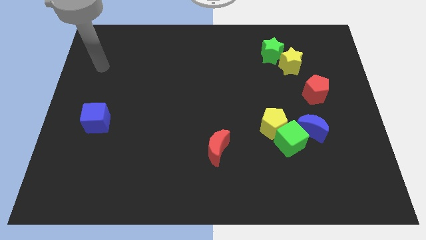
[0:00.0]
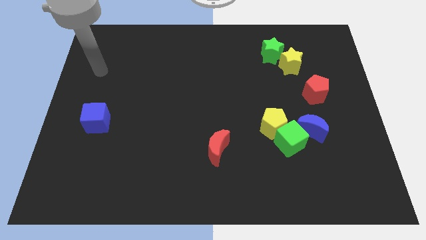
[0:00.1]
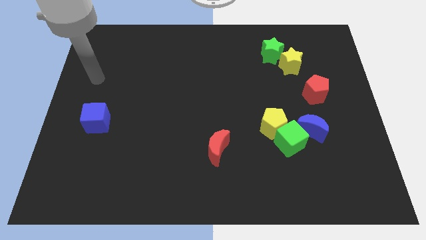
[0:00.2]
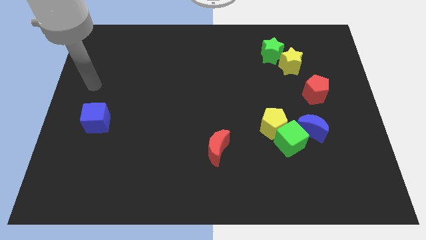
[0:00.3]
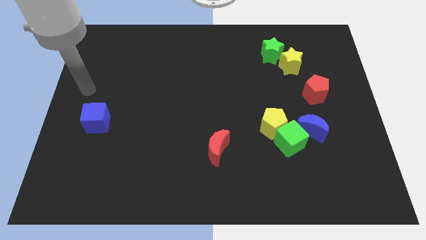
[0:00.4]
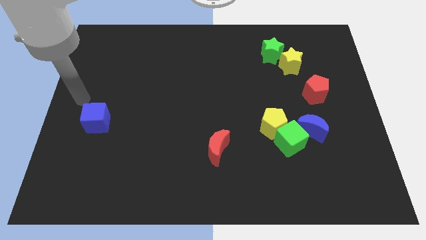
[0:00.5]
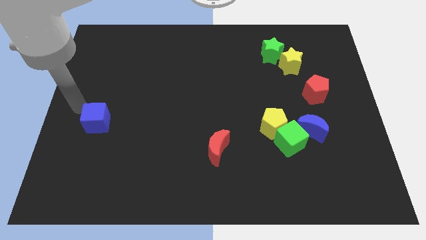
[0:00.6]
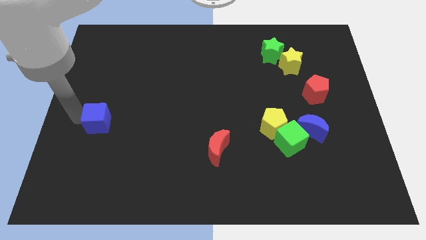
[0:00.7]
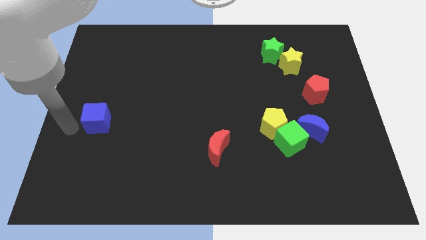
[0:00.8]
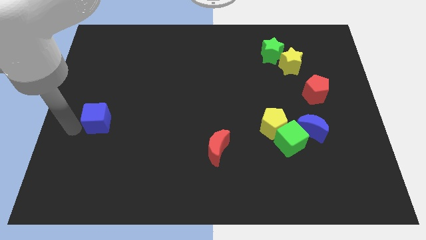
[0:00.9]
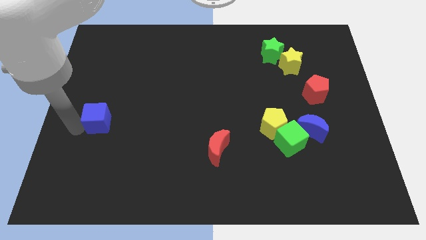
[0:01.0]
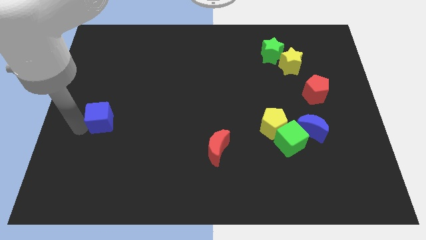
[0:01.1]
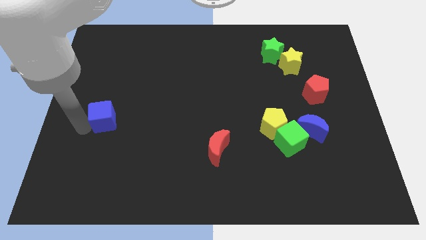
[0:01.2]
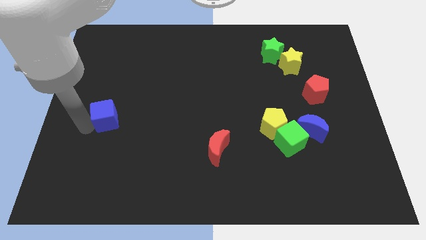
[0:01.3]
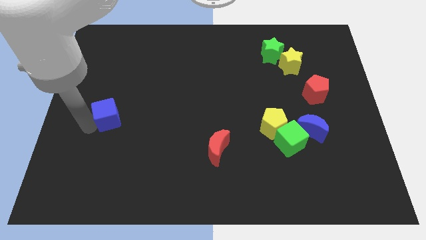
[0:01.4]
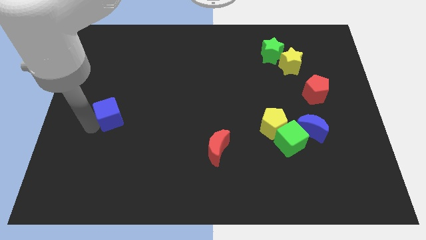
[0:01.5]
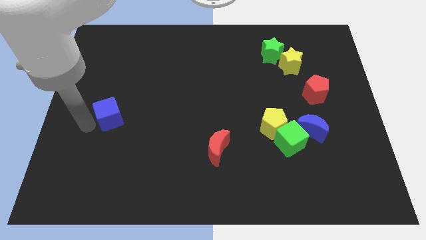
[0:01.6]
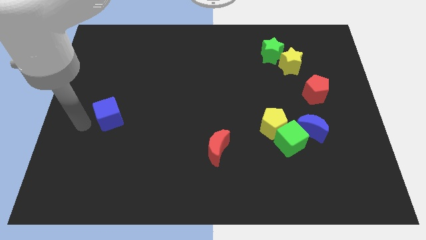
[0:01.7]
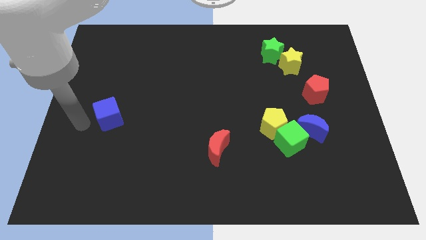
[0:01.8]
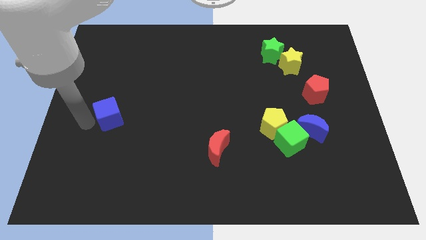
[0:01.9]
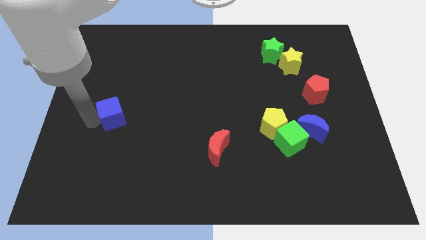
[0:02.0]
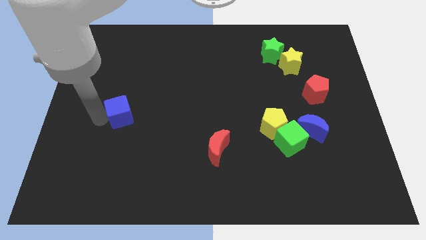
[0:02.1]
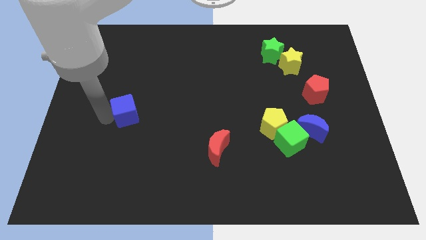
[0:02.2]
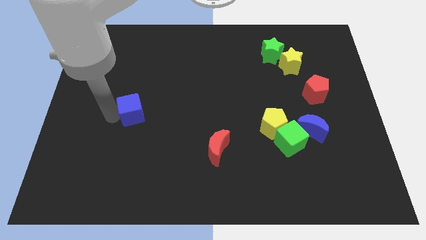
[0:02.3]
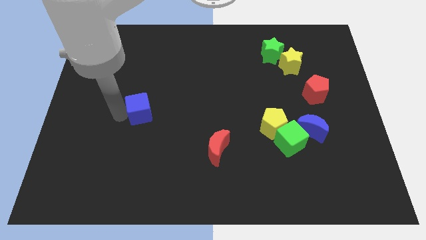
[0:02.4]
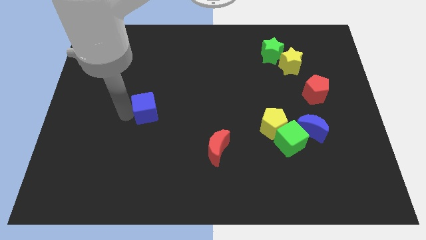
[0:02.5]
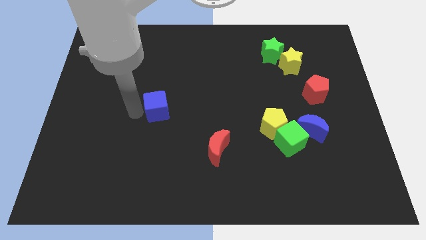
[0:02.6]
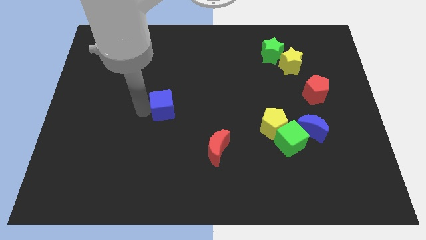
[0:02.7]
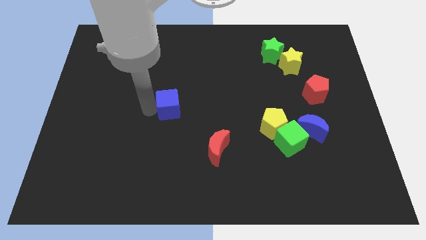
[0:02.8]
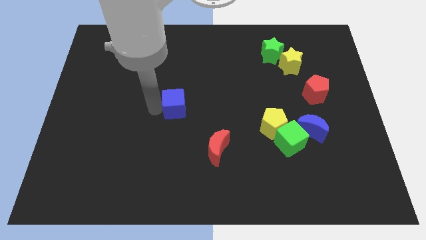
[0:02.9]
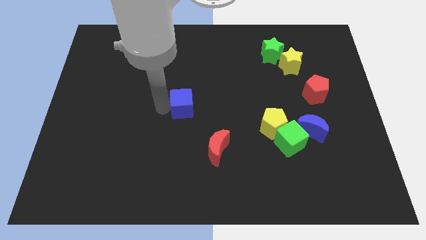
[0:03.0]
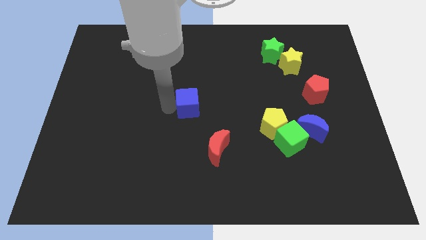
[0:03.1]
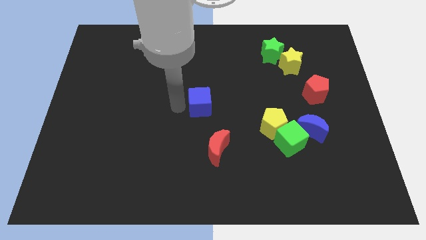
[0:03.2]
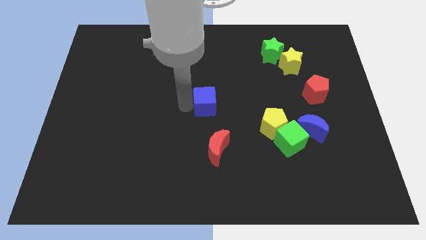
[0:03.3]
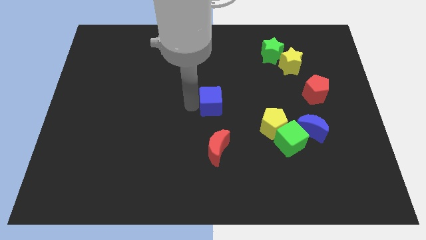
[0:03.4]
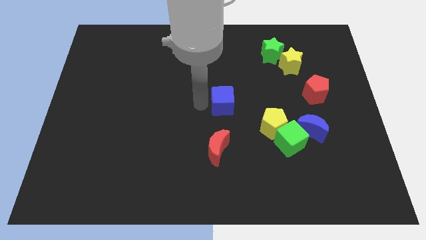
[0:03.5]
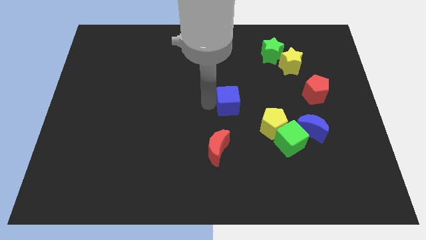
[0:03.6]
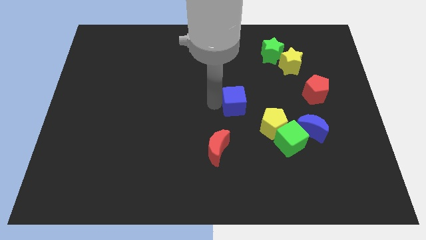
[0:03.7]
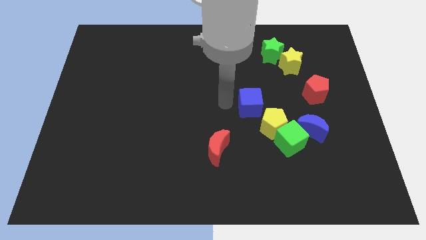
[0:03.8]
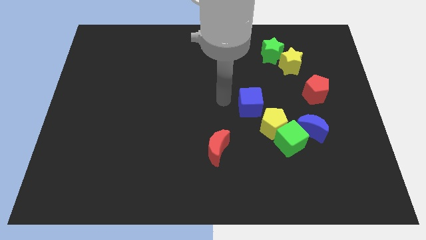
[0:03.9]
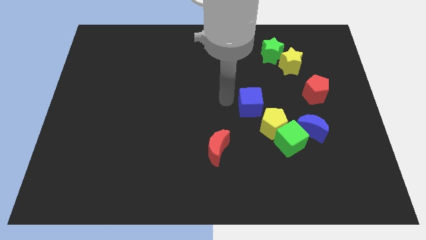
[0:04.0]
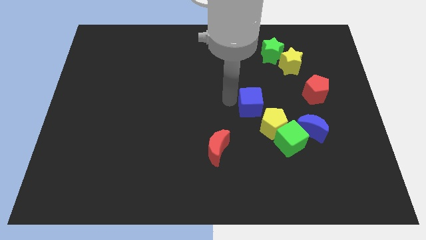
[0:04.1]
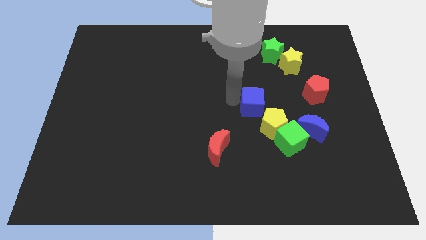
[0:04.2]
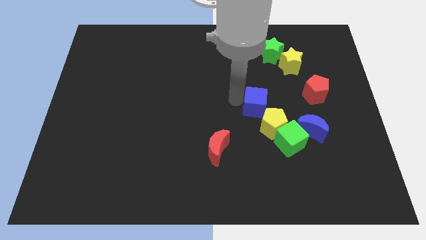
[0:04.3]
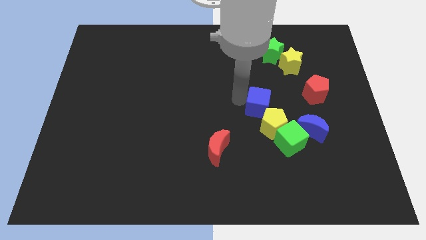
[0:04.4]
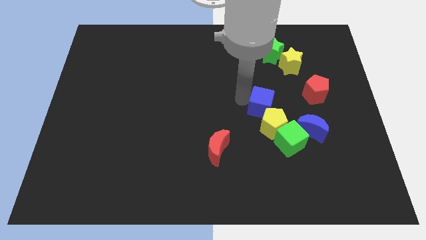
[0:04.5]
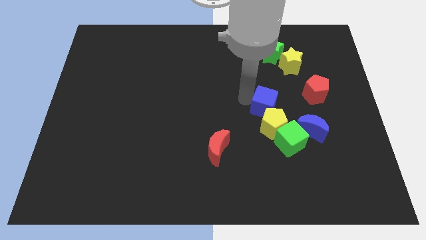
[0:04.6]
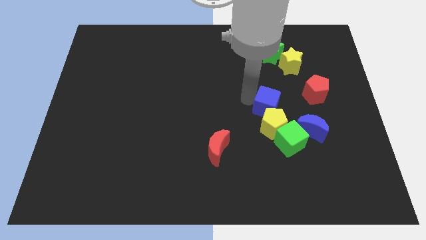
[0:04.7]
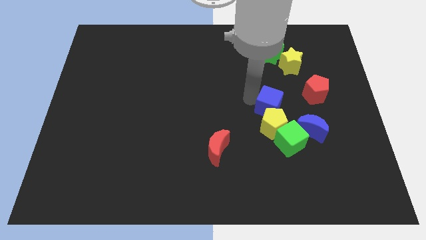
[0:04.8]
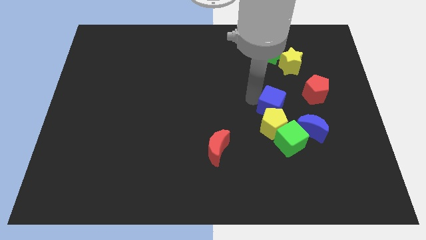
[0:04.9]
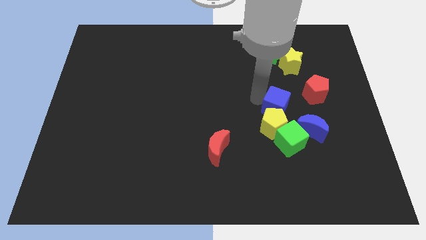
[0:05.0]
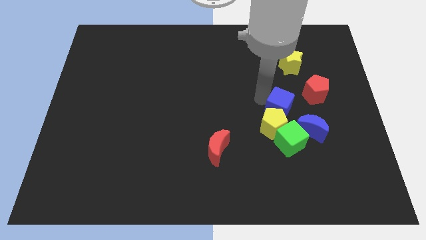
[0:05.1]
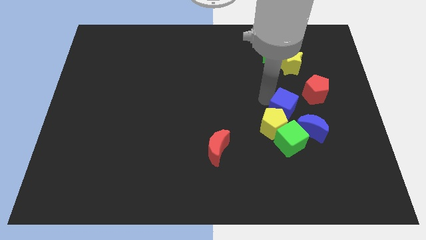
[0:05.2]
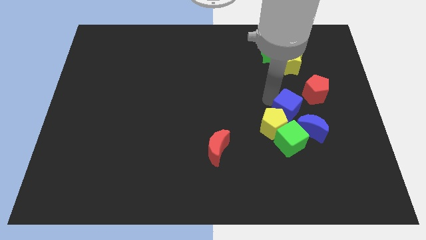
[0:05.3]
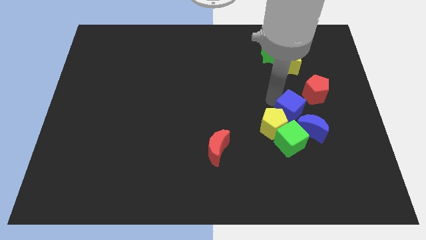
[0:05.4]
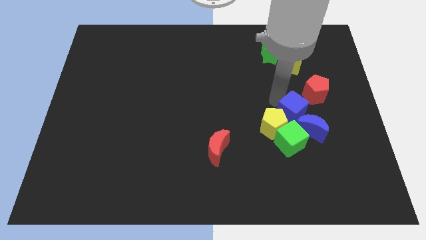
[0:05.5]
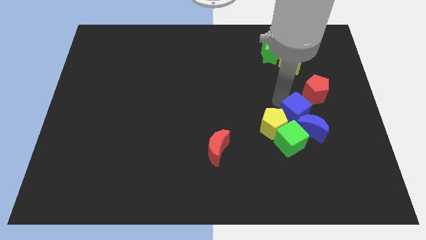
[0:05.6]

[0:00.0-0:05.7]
push the blue cube close to the blue moon

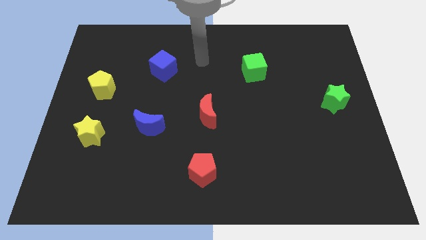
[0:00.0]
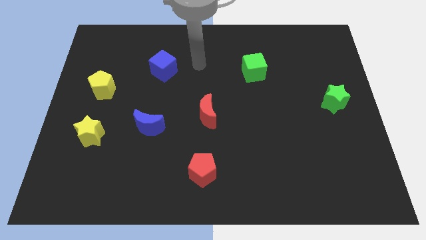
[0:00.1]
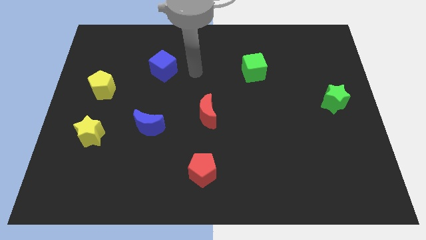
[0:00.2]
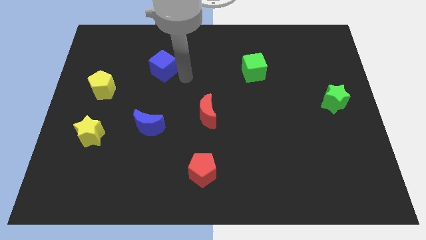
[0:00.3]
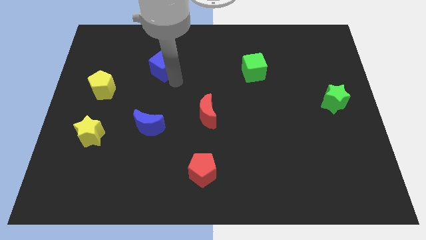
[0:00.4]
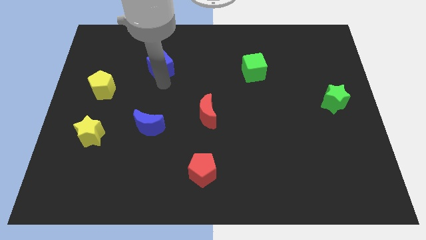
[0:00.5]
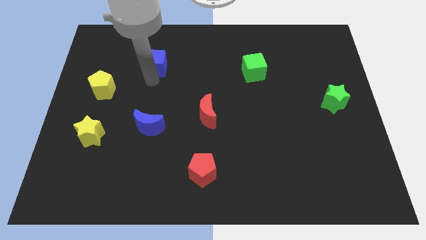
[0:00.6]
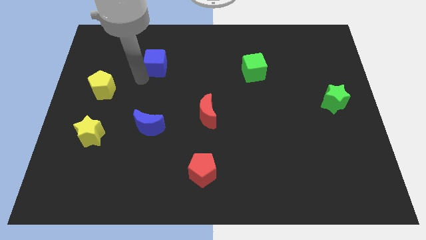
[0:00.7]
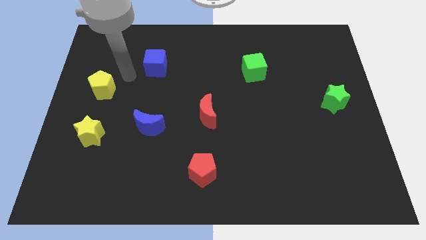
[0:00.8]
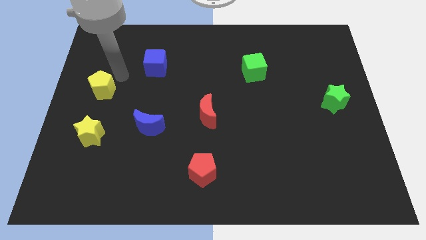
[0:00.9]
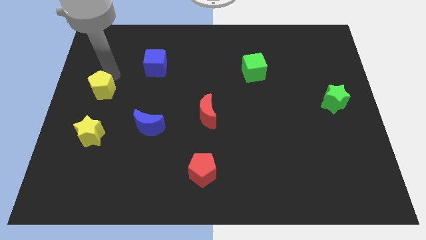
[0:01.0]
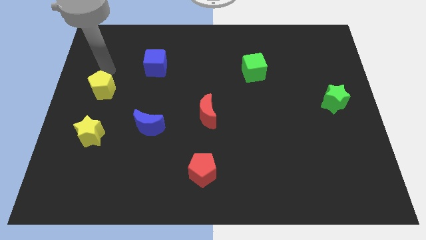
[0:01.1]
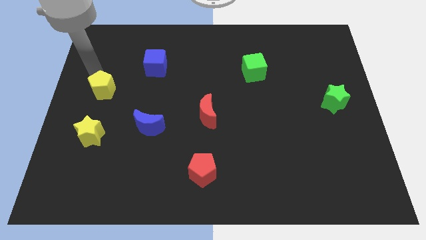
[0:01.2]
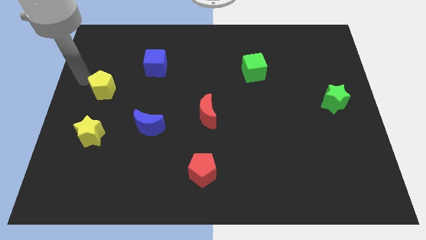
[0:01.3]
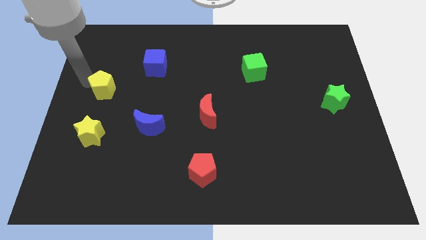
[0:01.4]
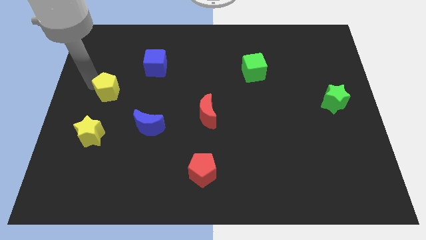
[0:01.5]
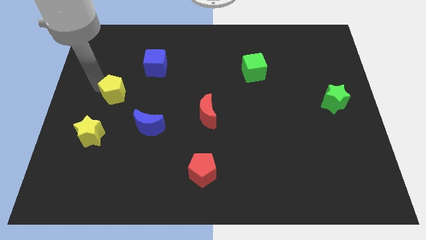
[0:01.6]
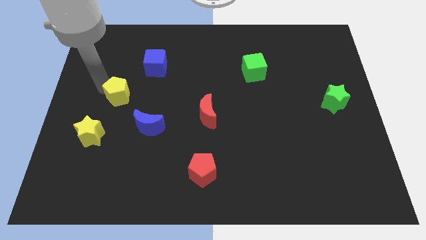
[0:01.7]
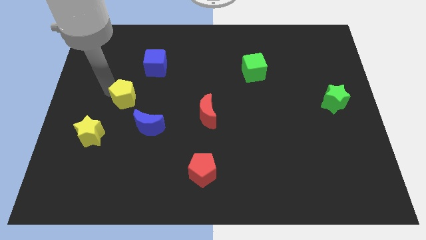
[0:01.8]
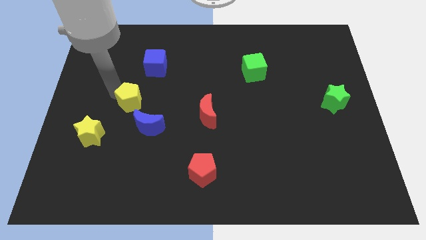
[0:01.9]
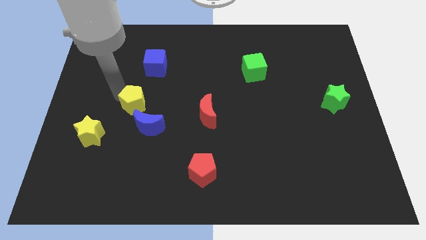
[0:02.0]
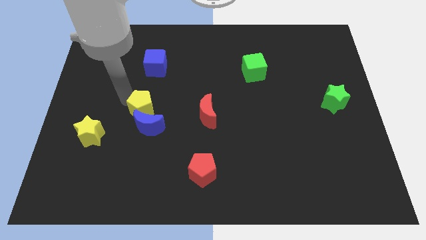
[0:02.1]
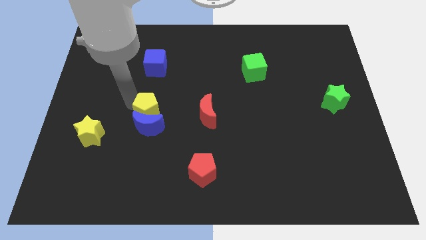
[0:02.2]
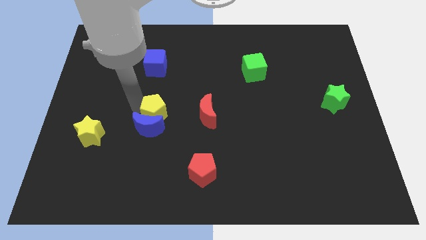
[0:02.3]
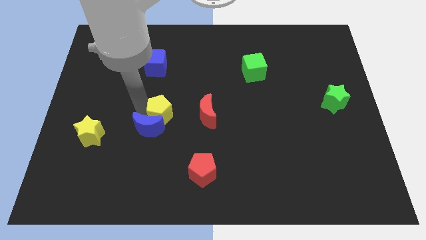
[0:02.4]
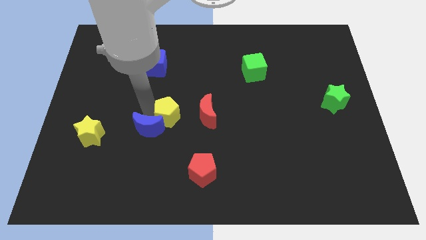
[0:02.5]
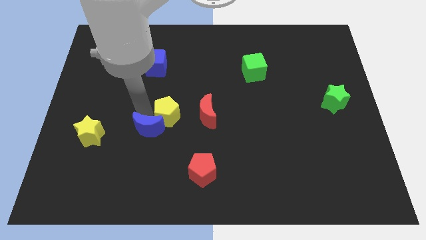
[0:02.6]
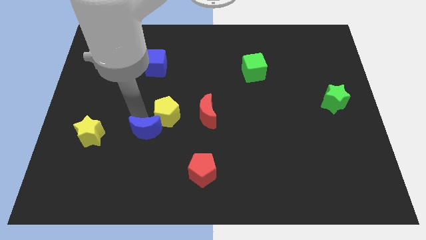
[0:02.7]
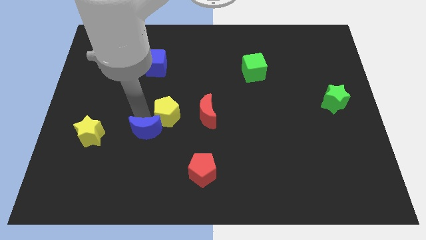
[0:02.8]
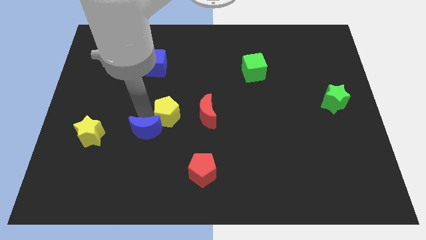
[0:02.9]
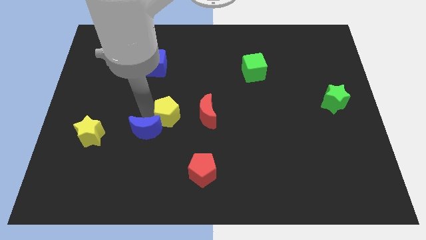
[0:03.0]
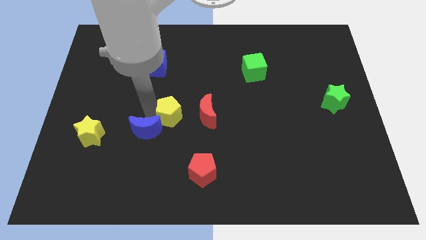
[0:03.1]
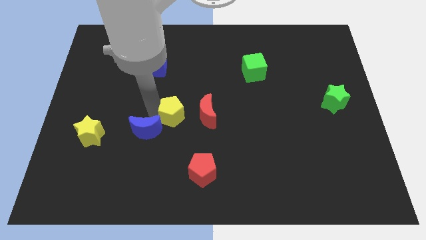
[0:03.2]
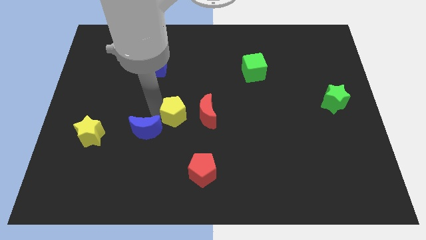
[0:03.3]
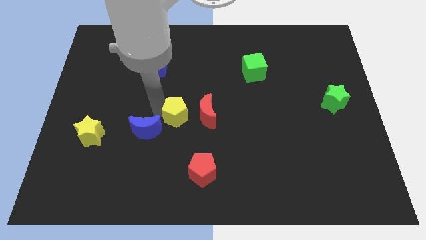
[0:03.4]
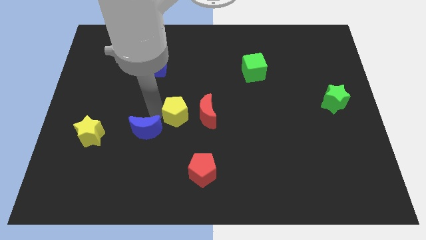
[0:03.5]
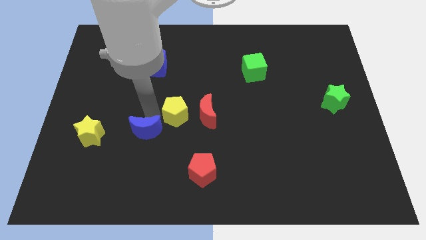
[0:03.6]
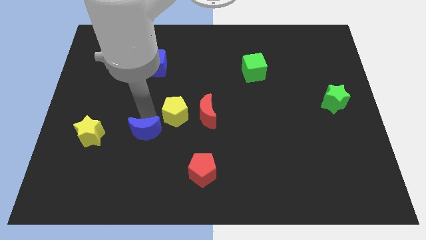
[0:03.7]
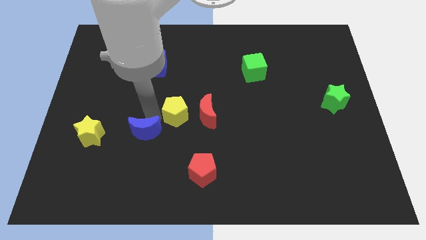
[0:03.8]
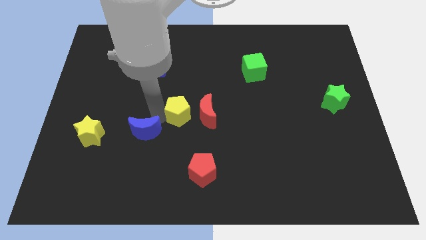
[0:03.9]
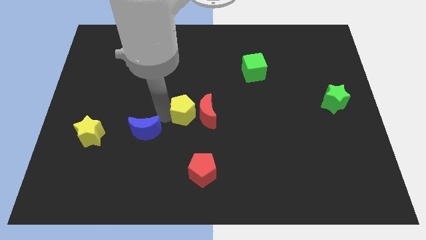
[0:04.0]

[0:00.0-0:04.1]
put the yellow pentagon next to the red moon
